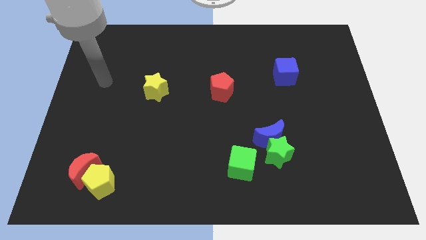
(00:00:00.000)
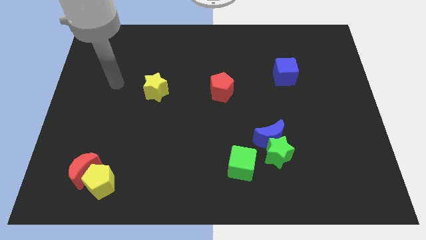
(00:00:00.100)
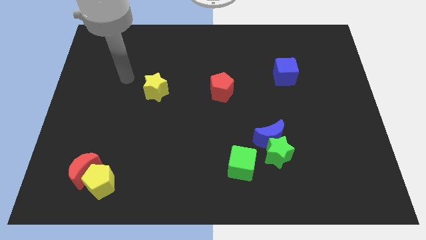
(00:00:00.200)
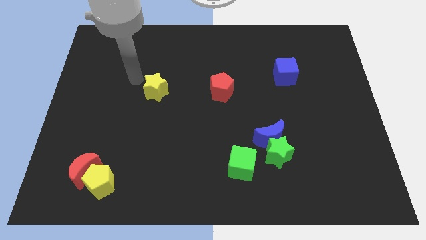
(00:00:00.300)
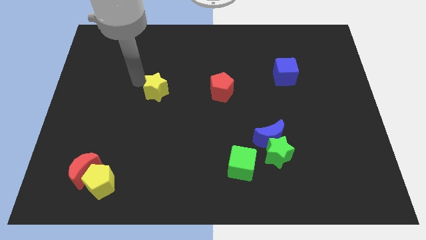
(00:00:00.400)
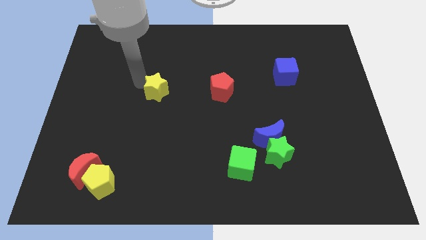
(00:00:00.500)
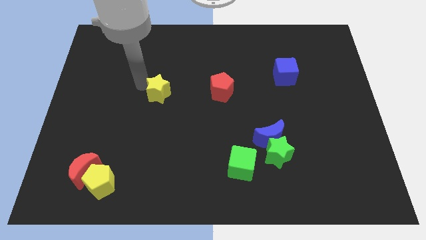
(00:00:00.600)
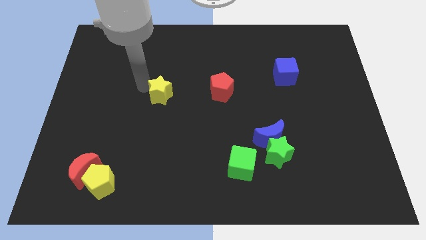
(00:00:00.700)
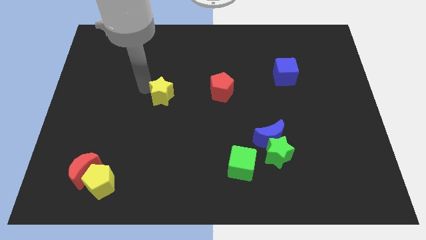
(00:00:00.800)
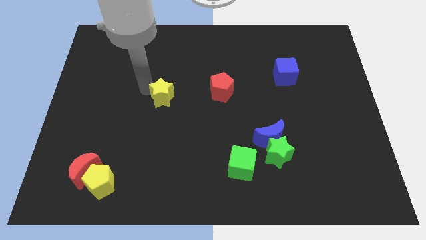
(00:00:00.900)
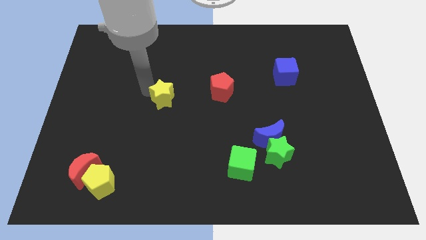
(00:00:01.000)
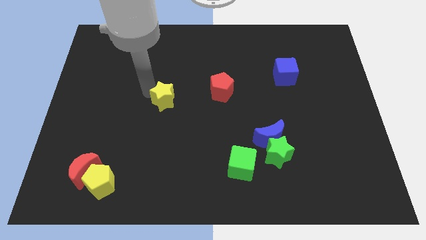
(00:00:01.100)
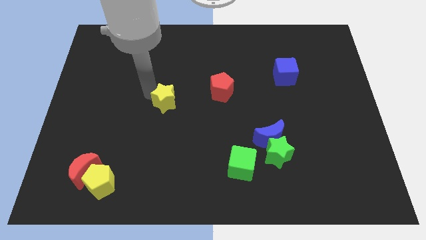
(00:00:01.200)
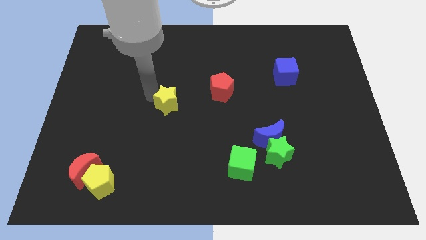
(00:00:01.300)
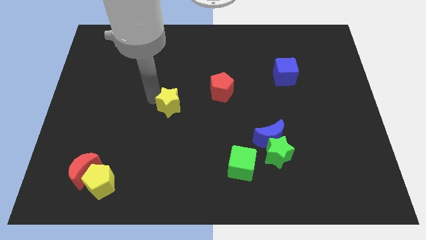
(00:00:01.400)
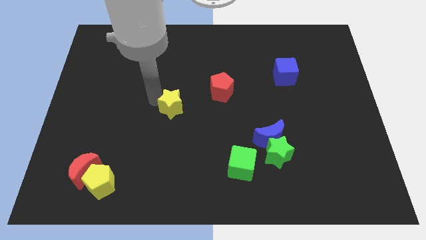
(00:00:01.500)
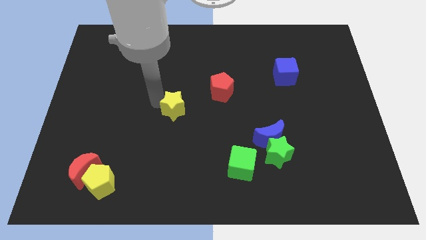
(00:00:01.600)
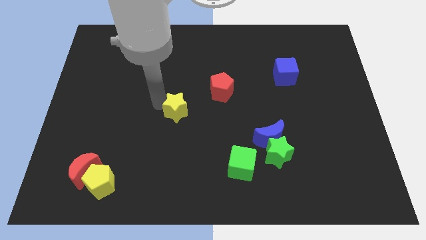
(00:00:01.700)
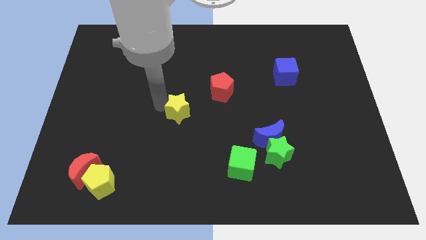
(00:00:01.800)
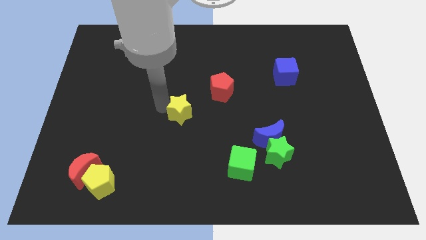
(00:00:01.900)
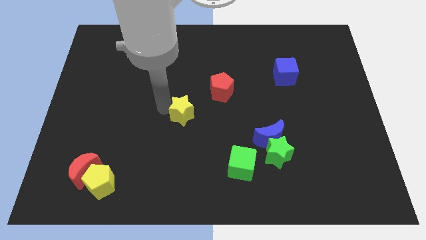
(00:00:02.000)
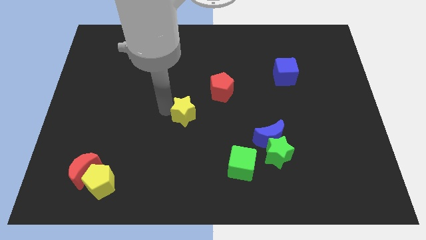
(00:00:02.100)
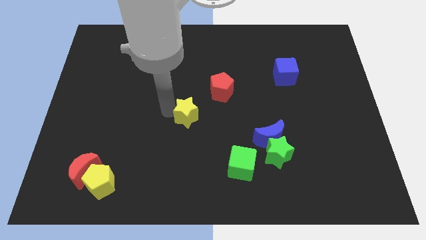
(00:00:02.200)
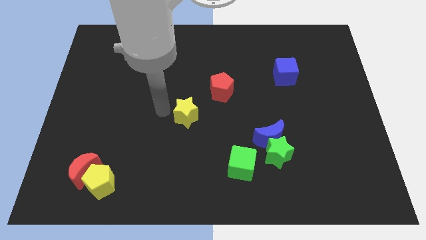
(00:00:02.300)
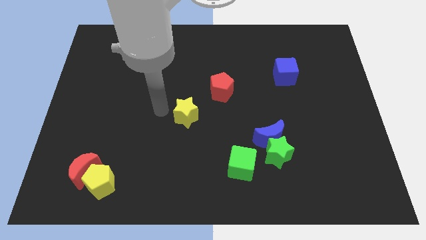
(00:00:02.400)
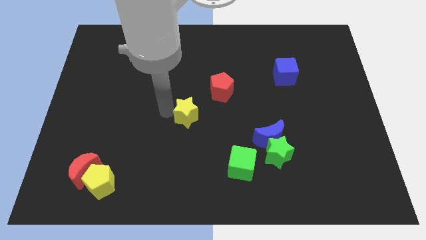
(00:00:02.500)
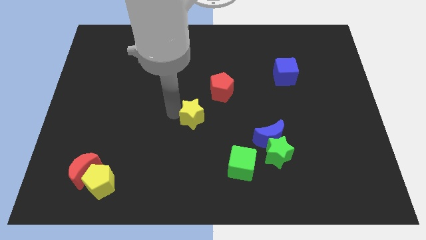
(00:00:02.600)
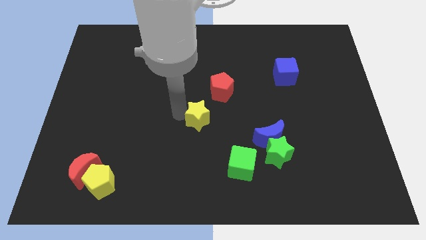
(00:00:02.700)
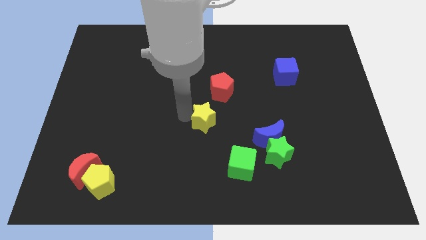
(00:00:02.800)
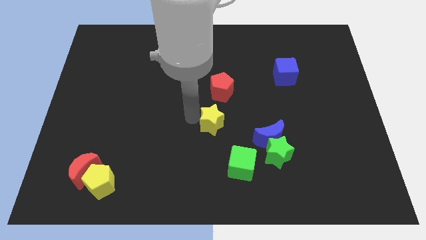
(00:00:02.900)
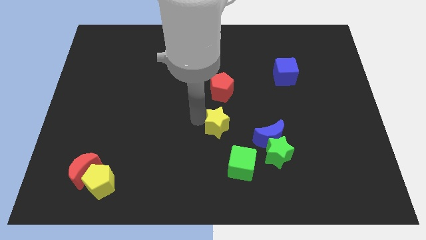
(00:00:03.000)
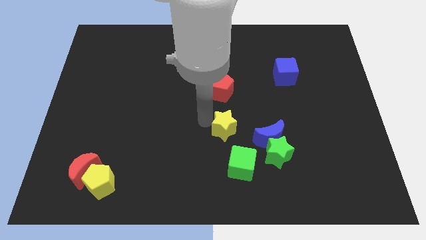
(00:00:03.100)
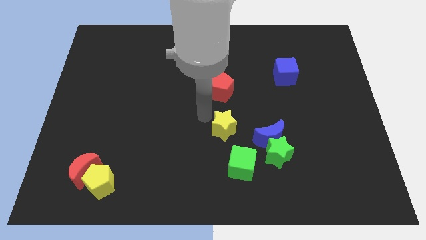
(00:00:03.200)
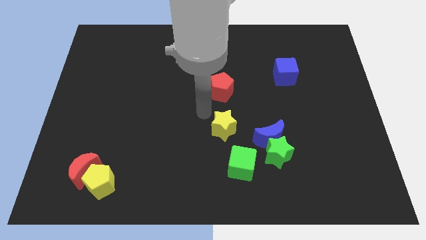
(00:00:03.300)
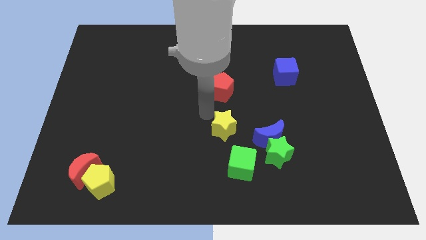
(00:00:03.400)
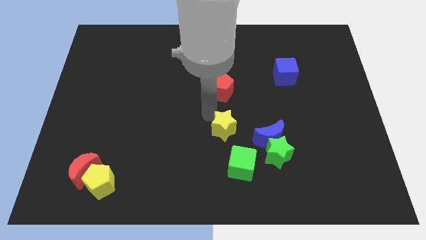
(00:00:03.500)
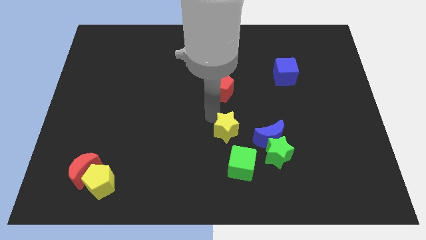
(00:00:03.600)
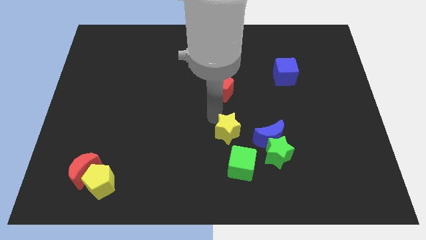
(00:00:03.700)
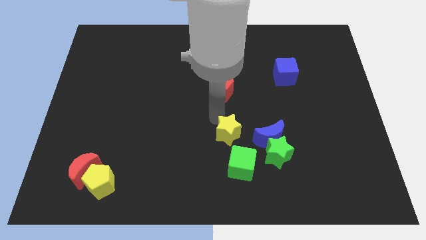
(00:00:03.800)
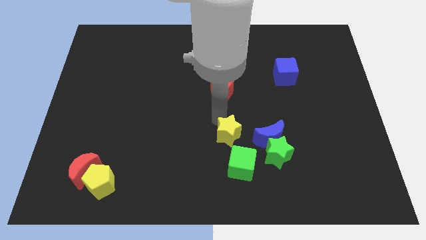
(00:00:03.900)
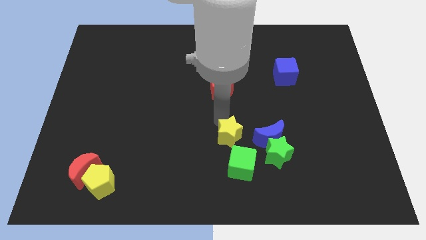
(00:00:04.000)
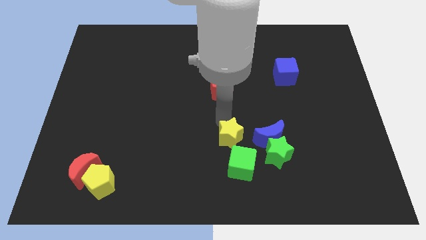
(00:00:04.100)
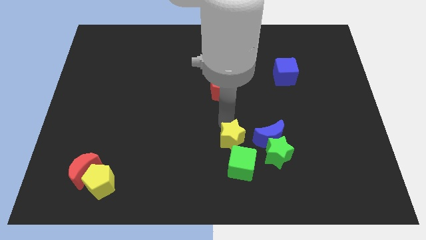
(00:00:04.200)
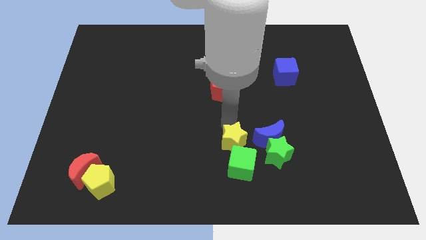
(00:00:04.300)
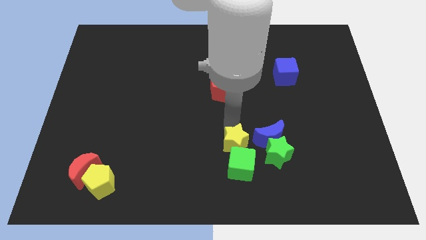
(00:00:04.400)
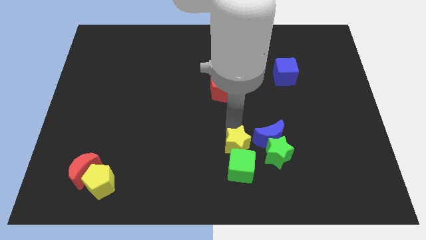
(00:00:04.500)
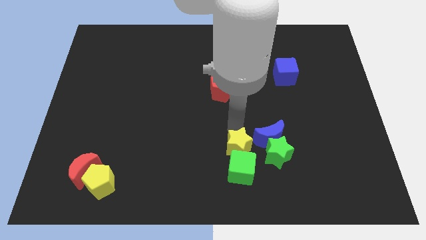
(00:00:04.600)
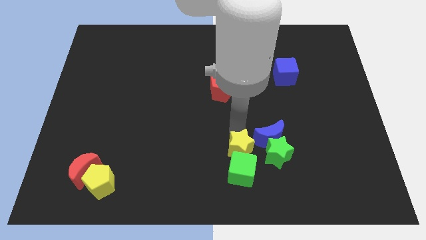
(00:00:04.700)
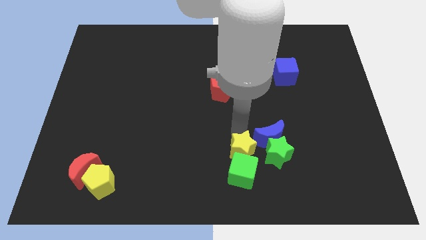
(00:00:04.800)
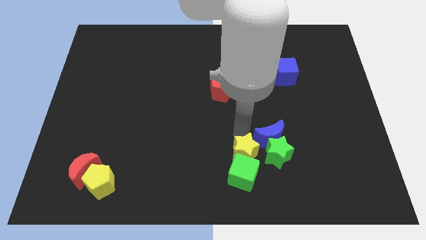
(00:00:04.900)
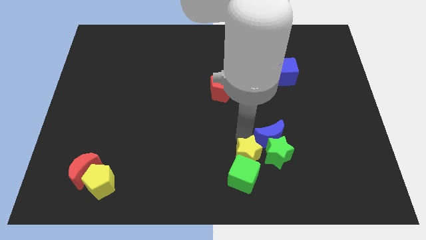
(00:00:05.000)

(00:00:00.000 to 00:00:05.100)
move the yellow star towards the green star
